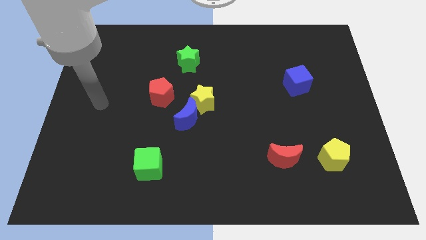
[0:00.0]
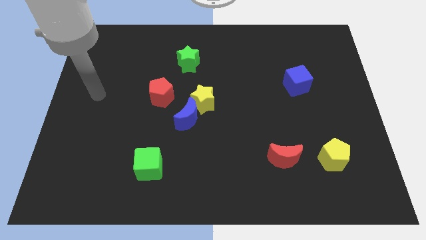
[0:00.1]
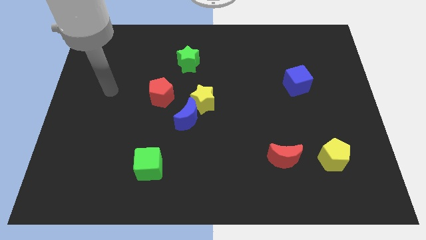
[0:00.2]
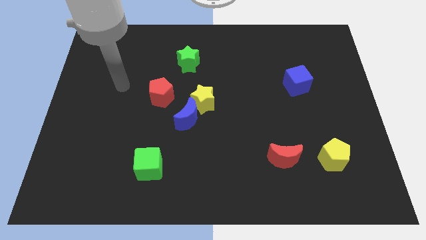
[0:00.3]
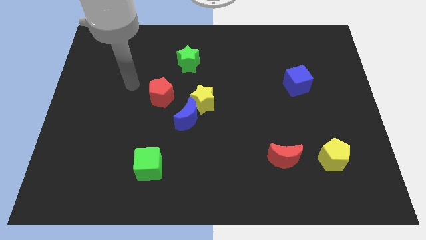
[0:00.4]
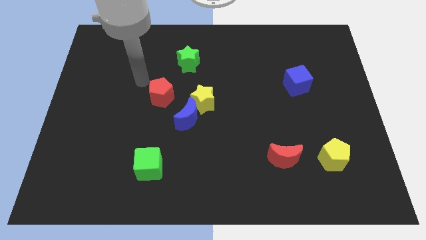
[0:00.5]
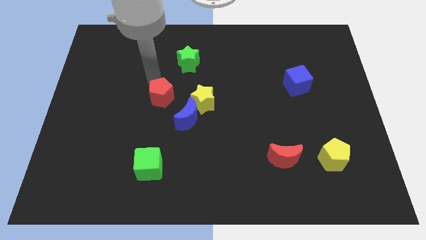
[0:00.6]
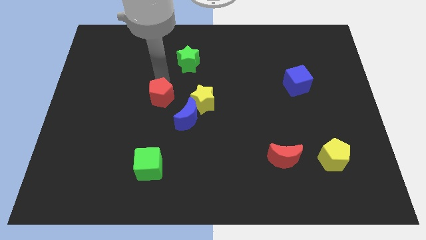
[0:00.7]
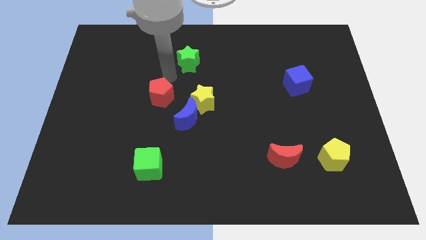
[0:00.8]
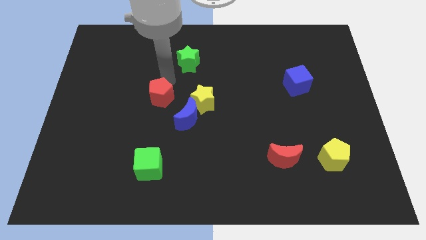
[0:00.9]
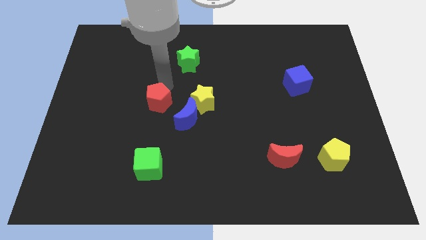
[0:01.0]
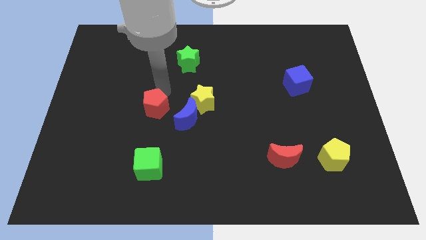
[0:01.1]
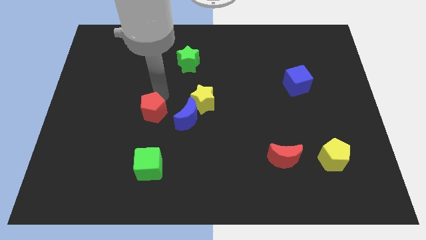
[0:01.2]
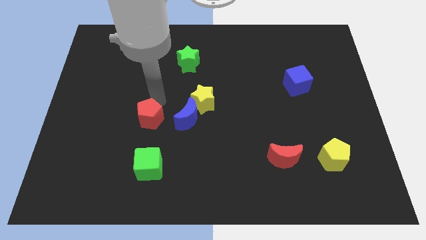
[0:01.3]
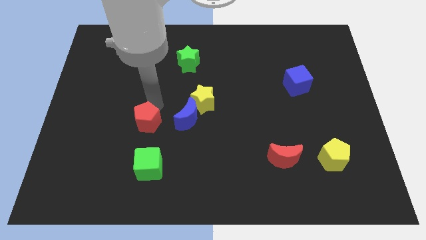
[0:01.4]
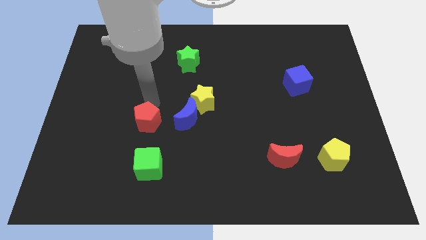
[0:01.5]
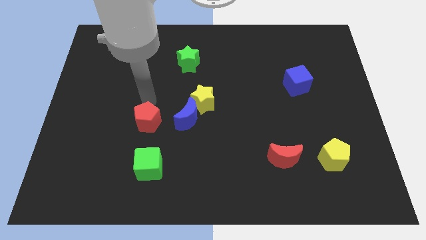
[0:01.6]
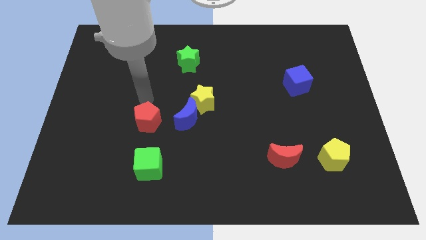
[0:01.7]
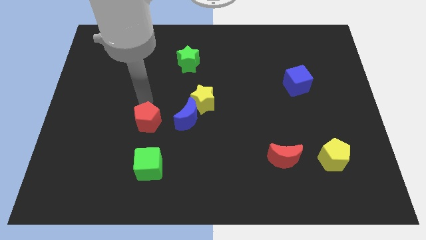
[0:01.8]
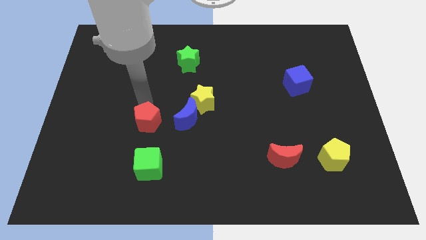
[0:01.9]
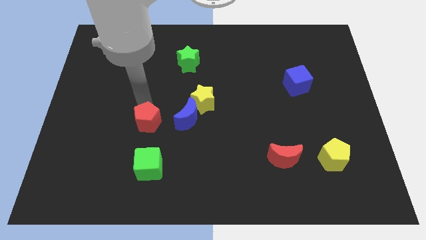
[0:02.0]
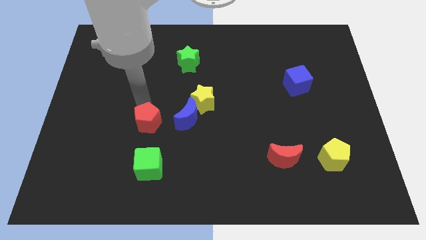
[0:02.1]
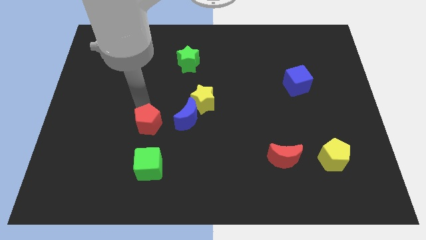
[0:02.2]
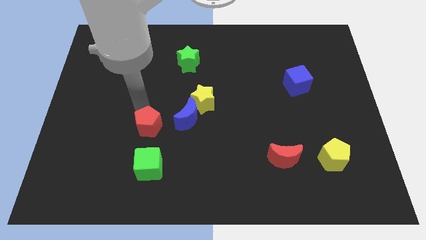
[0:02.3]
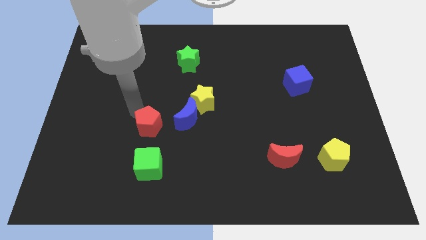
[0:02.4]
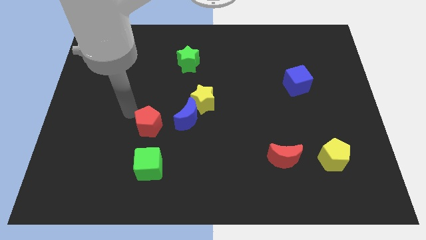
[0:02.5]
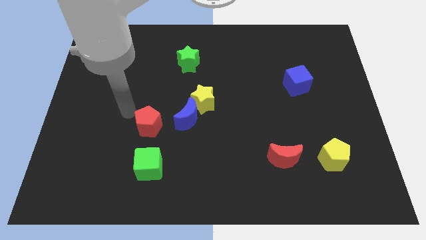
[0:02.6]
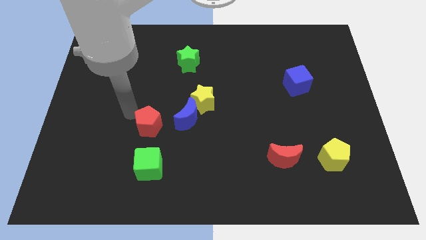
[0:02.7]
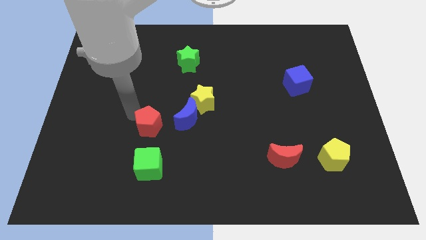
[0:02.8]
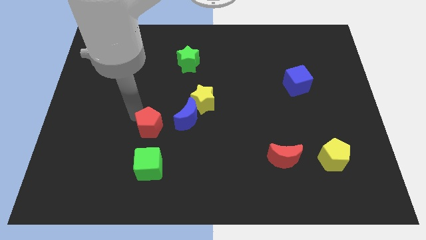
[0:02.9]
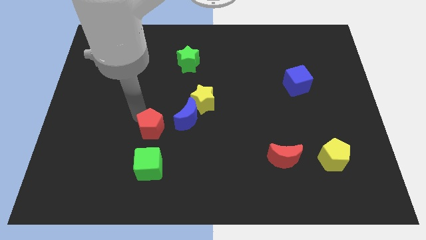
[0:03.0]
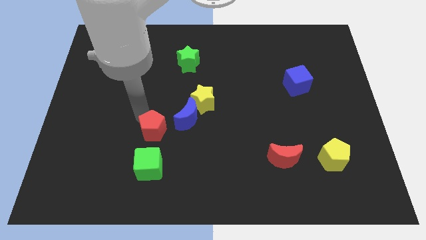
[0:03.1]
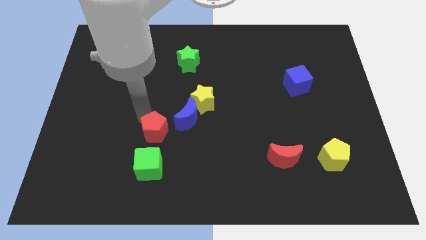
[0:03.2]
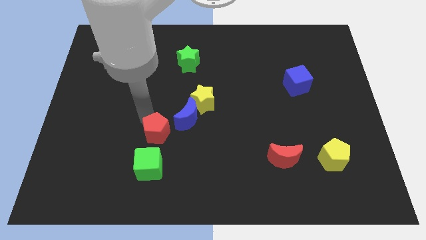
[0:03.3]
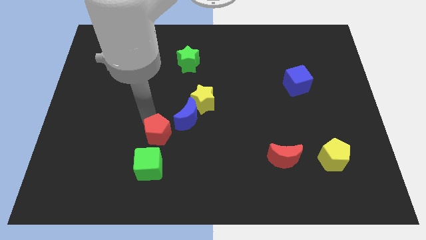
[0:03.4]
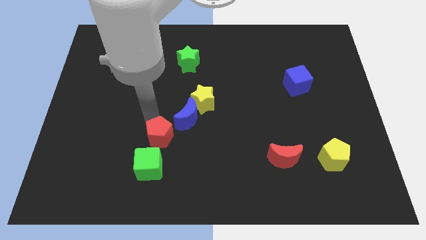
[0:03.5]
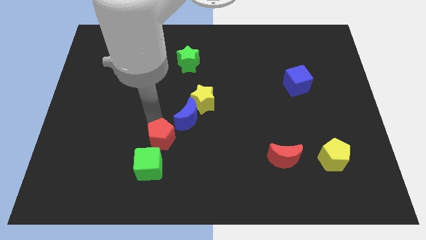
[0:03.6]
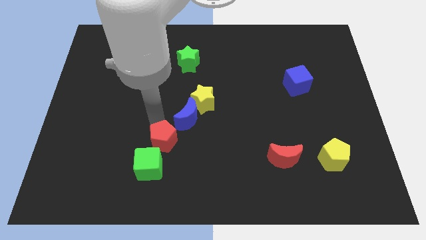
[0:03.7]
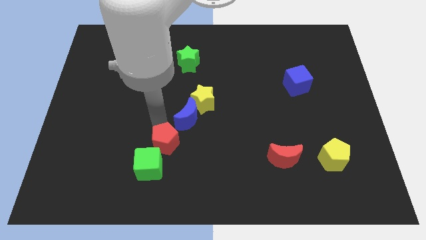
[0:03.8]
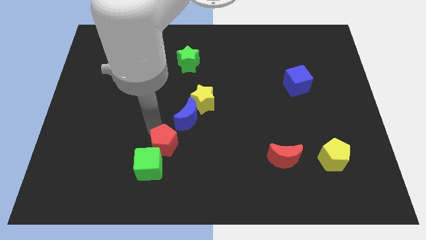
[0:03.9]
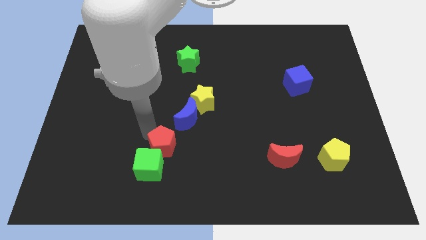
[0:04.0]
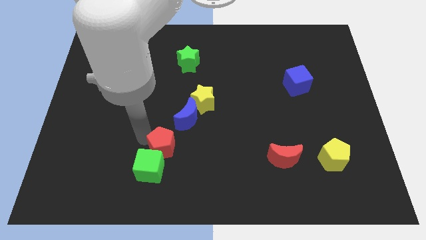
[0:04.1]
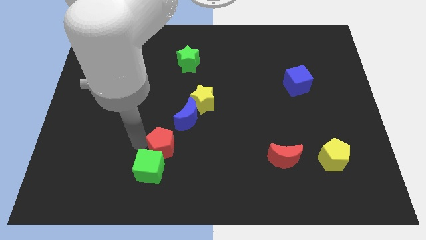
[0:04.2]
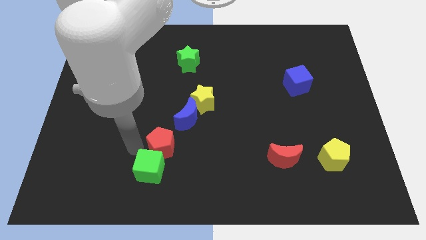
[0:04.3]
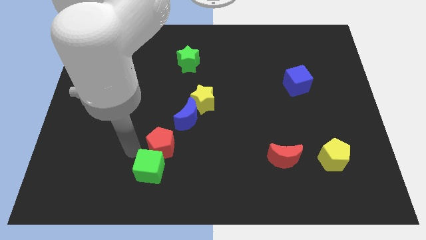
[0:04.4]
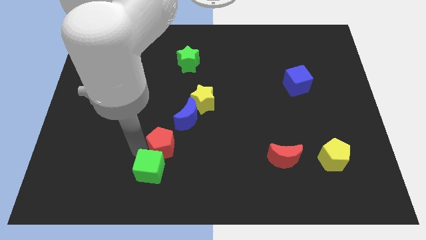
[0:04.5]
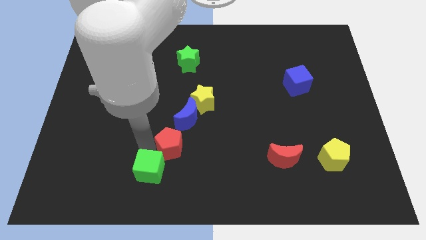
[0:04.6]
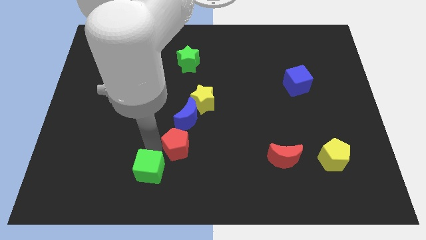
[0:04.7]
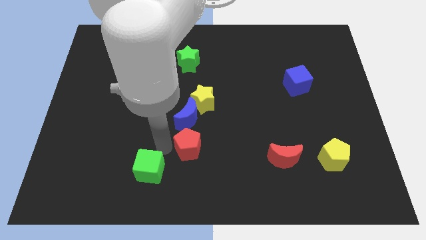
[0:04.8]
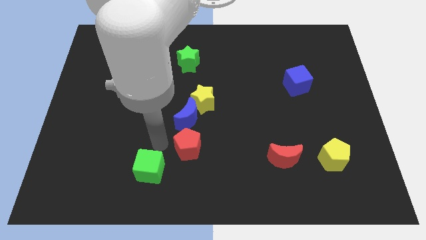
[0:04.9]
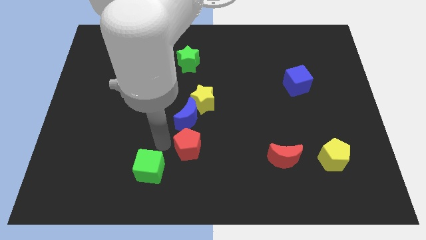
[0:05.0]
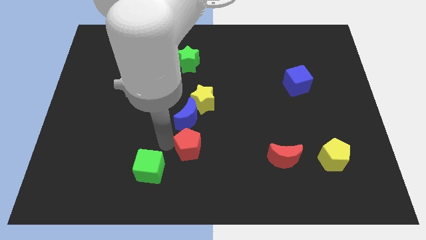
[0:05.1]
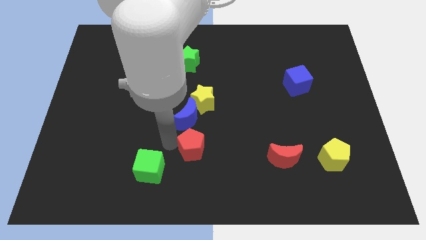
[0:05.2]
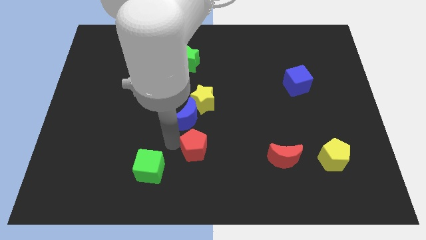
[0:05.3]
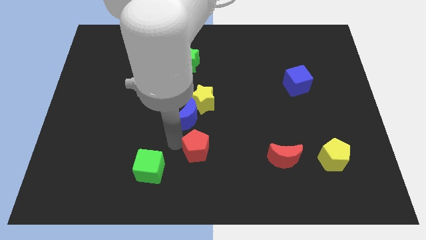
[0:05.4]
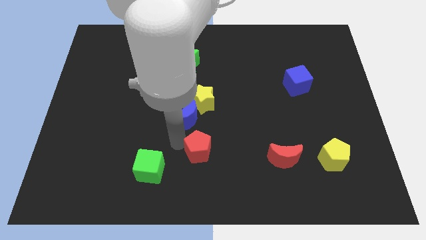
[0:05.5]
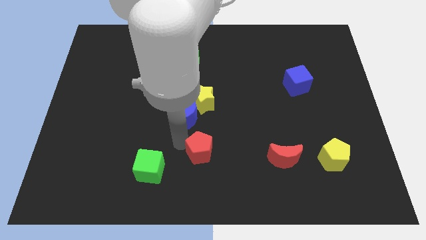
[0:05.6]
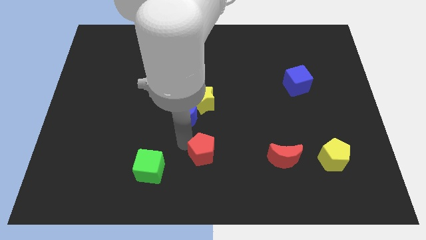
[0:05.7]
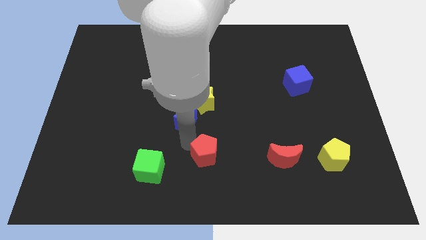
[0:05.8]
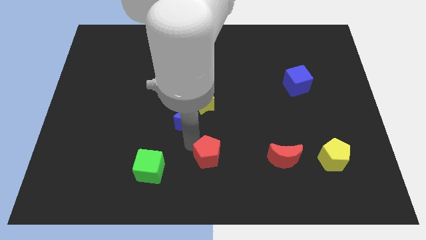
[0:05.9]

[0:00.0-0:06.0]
push the red pentagon to the left side of the red moon

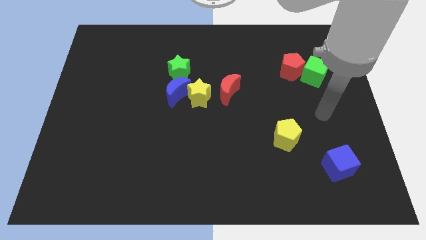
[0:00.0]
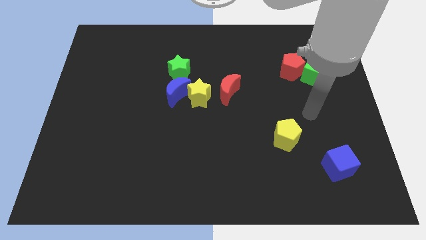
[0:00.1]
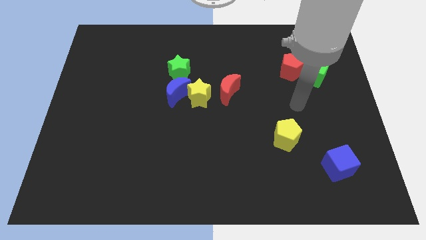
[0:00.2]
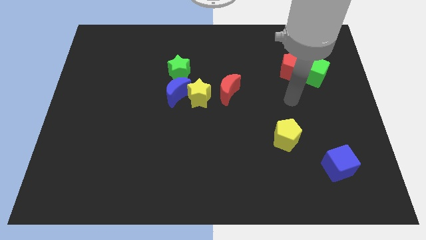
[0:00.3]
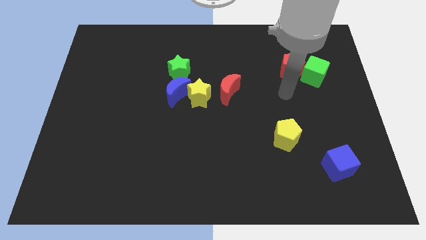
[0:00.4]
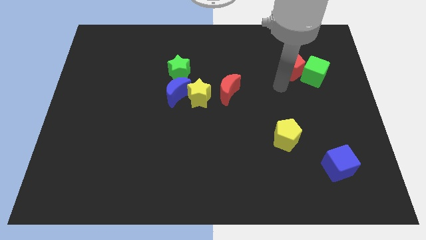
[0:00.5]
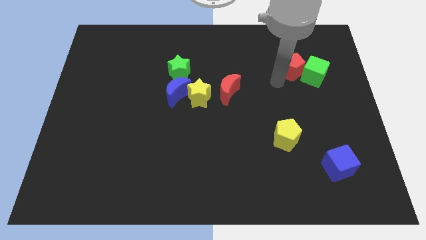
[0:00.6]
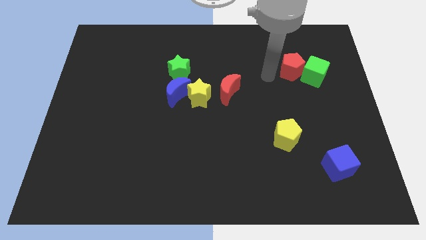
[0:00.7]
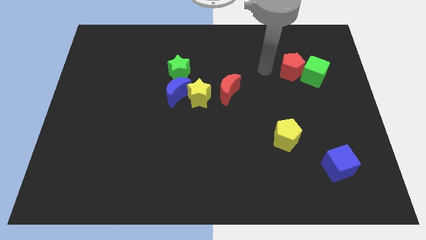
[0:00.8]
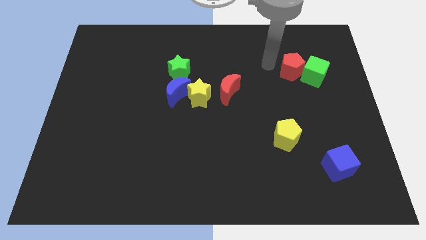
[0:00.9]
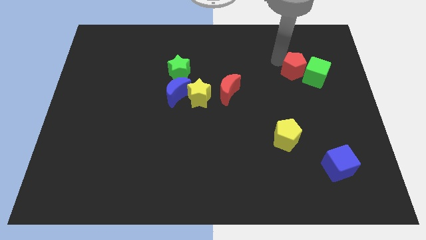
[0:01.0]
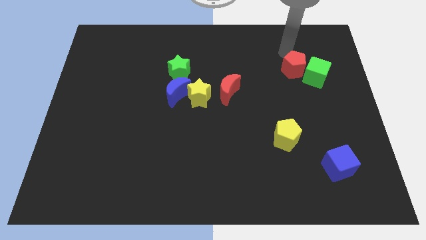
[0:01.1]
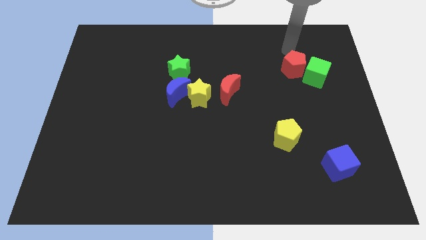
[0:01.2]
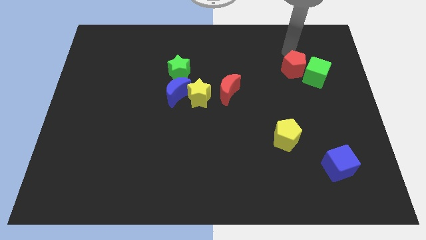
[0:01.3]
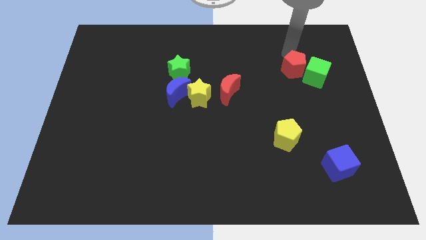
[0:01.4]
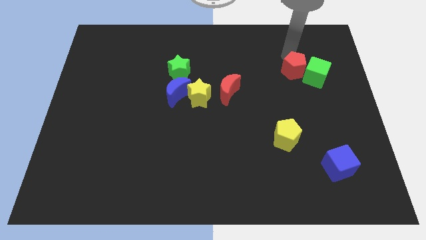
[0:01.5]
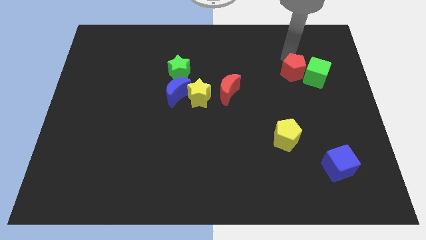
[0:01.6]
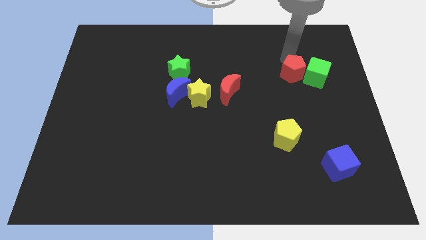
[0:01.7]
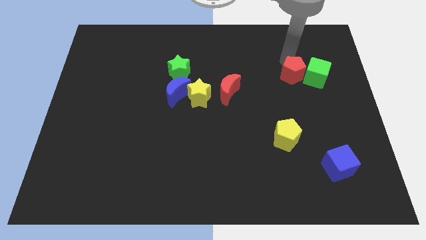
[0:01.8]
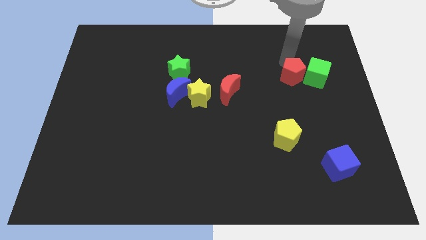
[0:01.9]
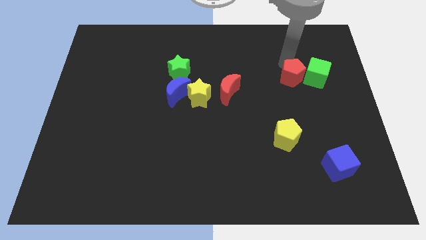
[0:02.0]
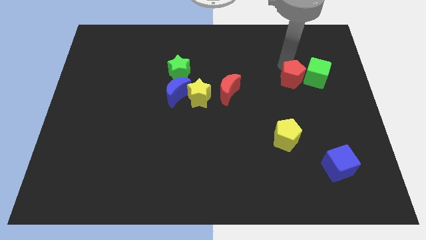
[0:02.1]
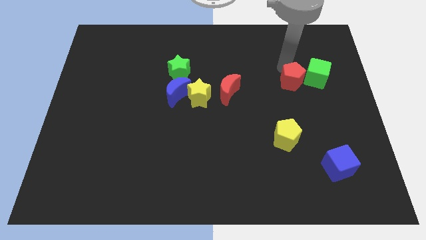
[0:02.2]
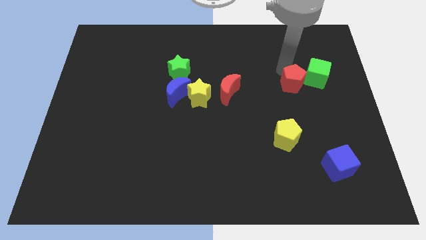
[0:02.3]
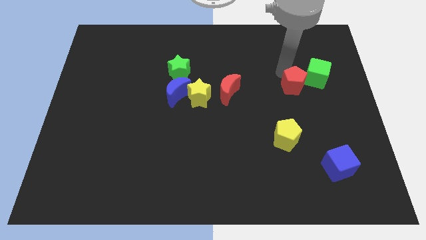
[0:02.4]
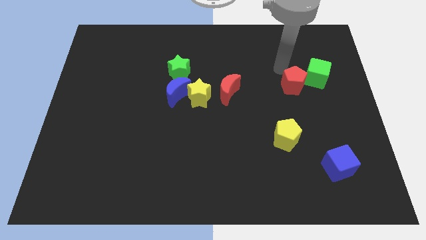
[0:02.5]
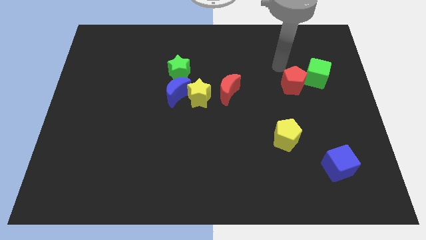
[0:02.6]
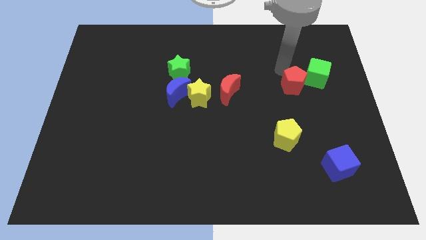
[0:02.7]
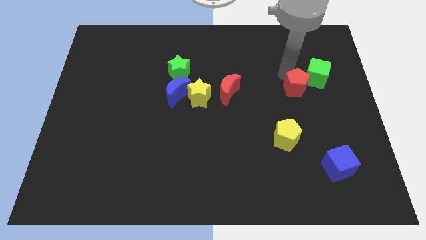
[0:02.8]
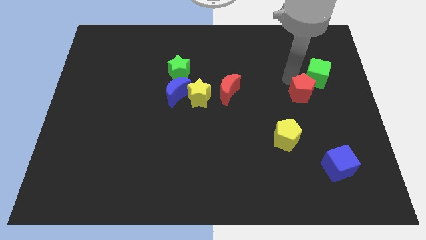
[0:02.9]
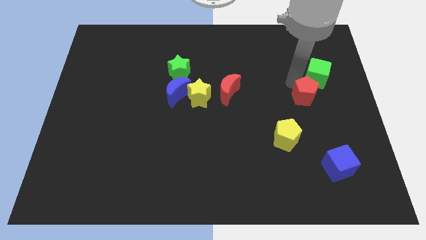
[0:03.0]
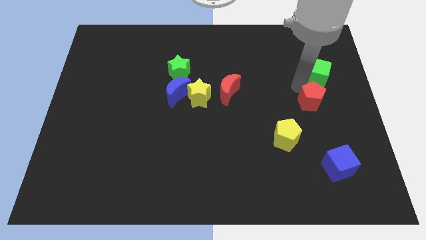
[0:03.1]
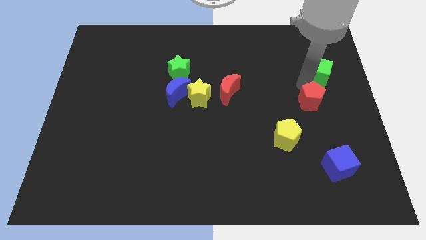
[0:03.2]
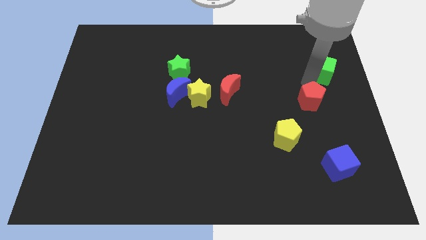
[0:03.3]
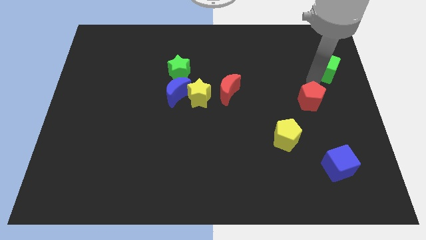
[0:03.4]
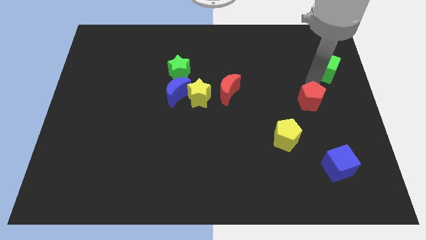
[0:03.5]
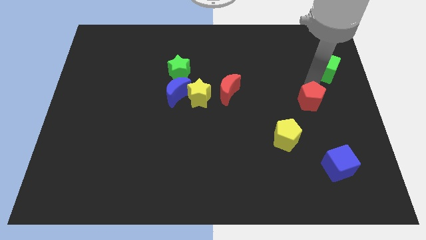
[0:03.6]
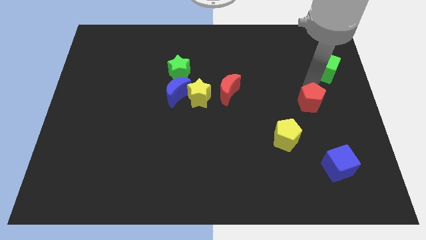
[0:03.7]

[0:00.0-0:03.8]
slide the red pentagon to the top right of the yellow pentagon
